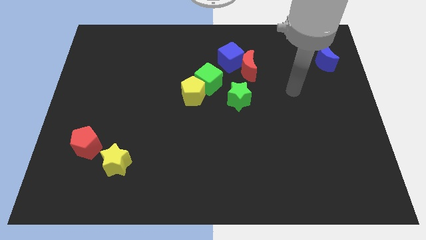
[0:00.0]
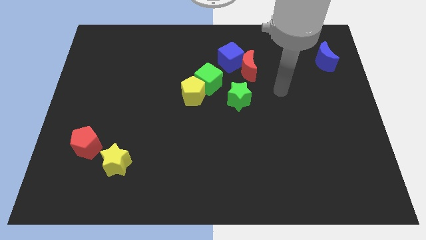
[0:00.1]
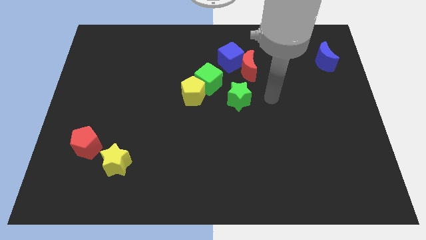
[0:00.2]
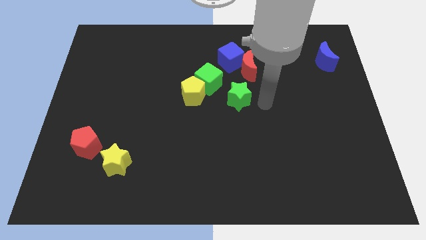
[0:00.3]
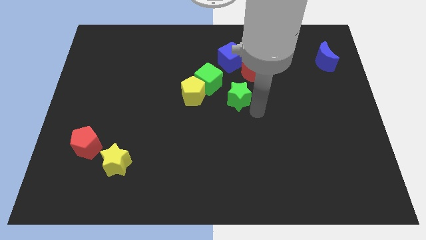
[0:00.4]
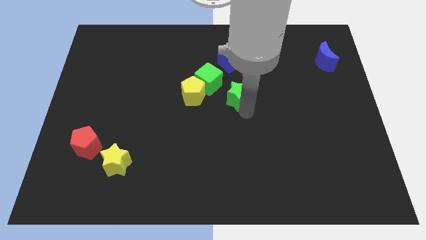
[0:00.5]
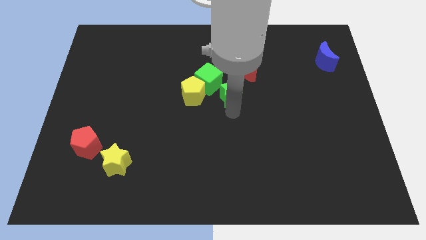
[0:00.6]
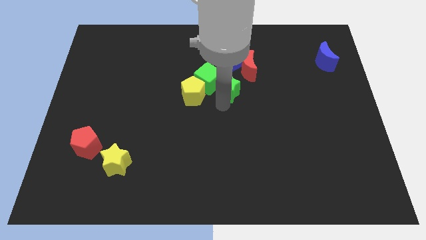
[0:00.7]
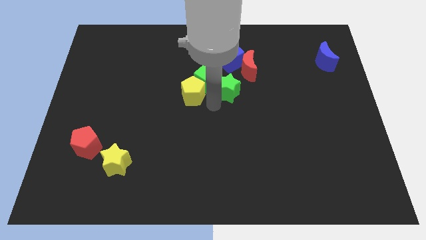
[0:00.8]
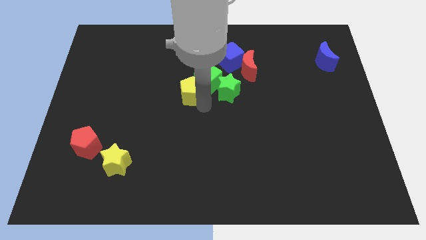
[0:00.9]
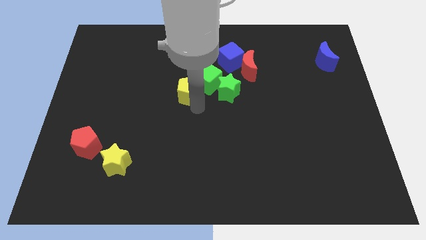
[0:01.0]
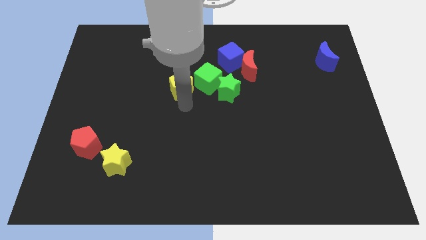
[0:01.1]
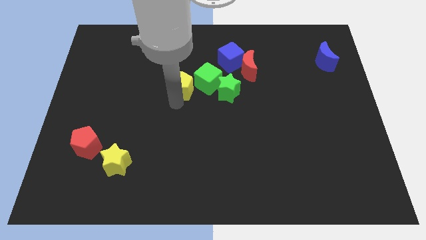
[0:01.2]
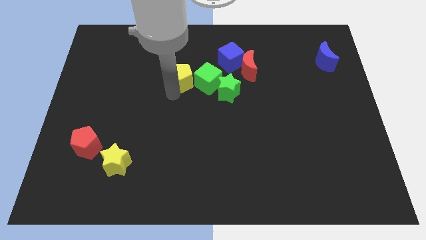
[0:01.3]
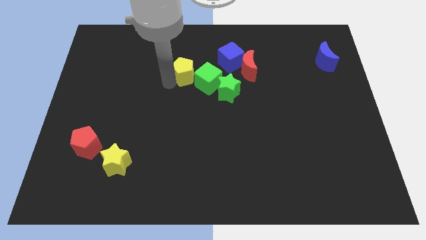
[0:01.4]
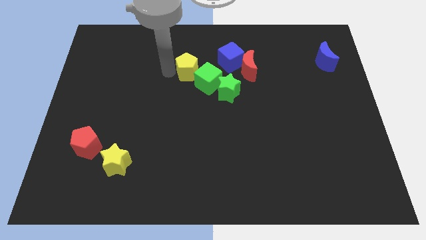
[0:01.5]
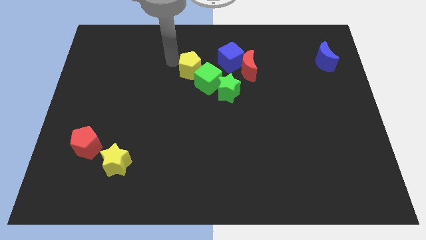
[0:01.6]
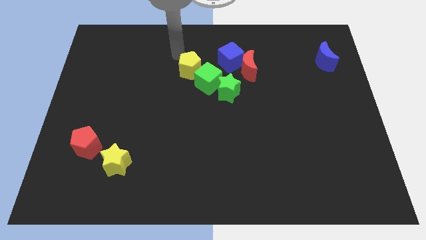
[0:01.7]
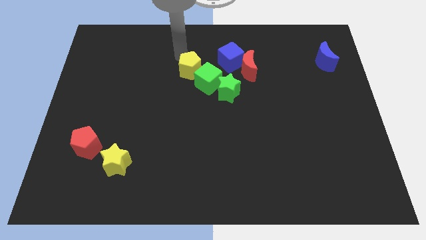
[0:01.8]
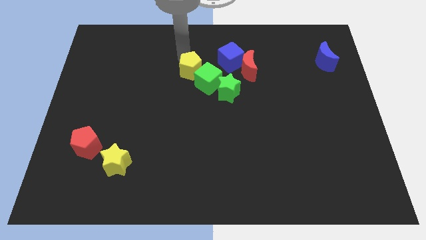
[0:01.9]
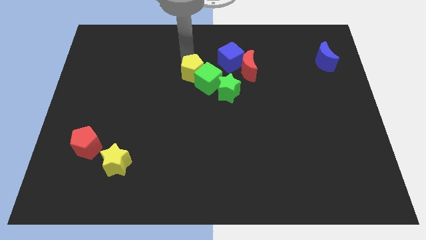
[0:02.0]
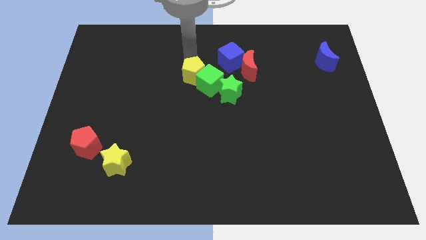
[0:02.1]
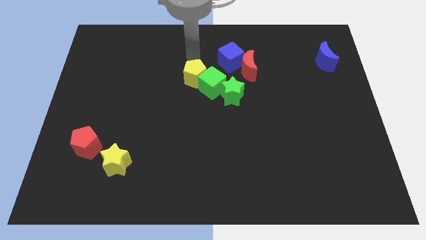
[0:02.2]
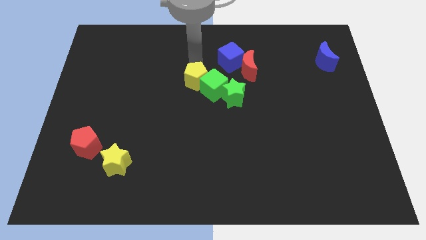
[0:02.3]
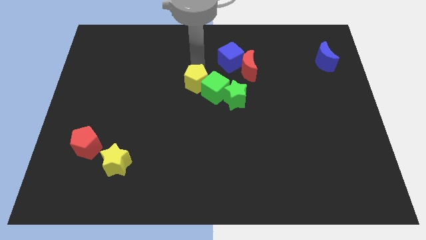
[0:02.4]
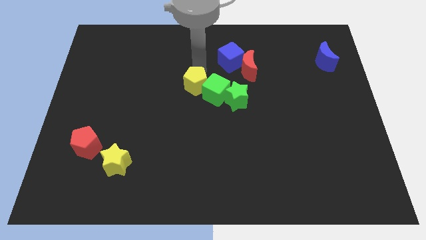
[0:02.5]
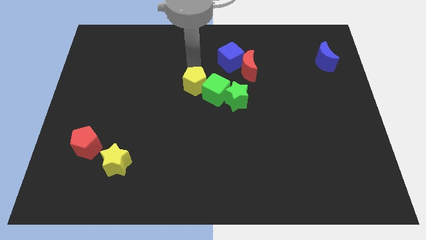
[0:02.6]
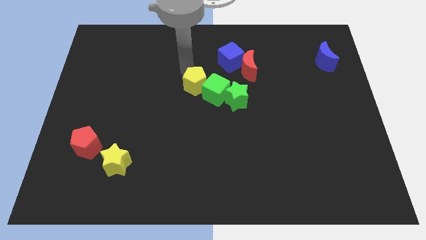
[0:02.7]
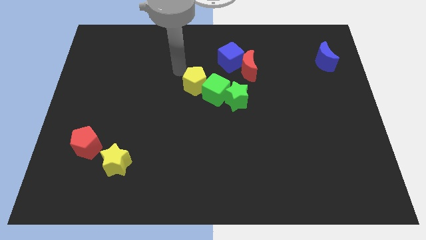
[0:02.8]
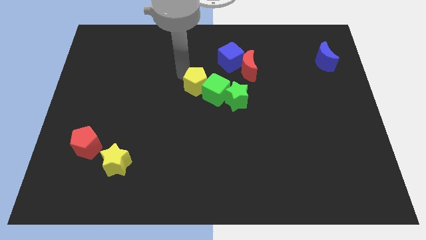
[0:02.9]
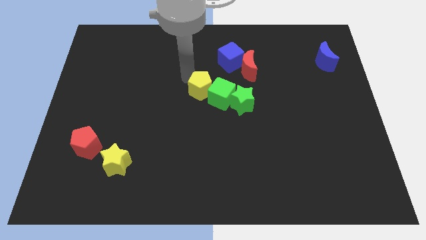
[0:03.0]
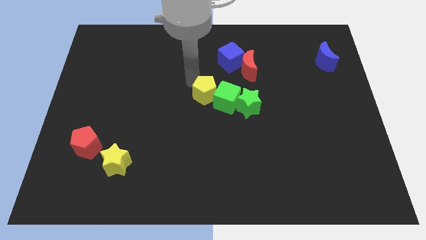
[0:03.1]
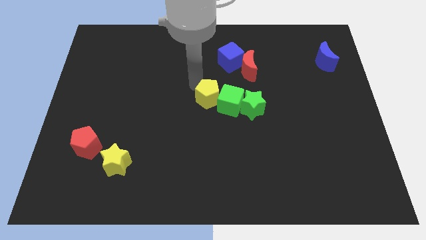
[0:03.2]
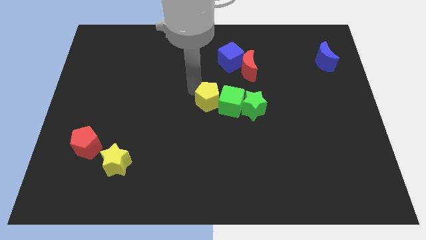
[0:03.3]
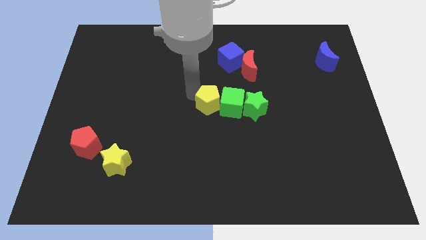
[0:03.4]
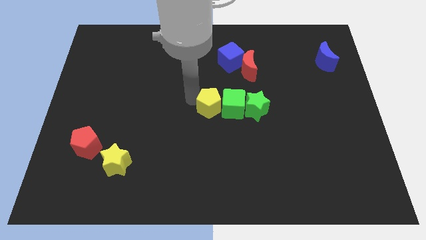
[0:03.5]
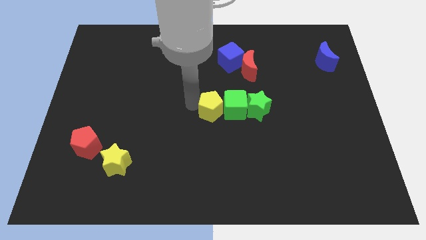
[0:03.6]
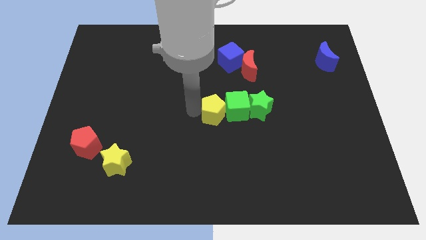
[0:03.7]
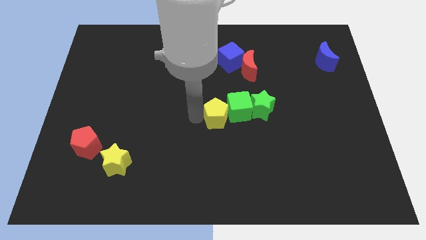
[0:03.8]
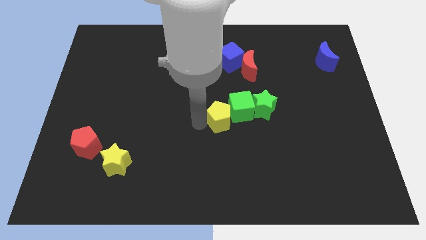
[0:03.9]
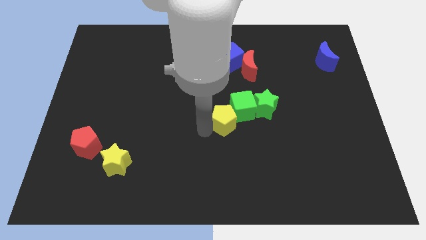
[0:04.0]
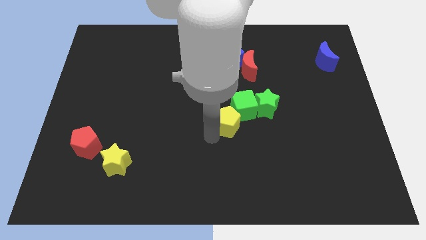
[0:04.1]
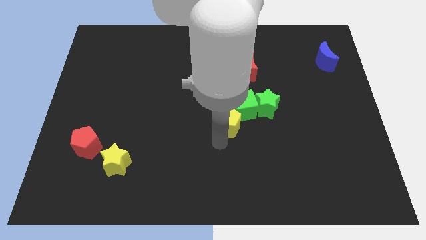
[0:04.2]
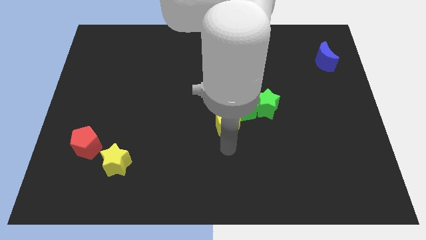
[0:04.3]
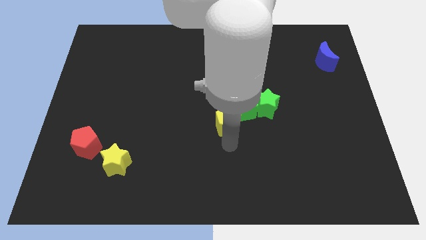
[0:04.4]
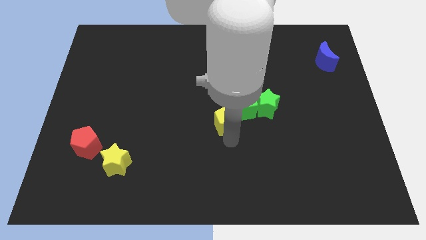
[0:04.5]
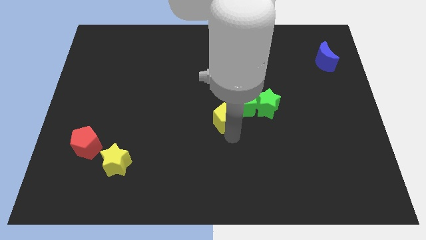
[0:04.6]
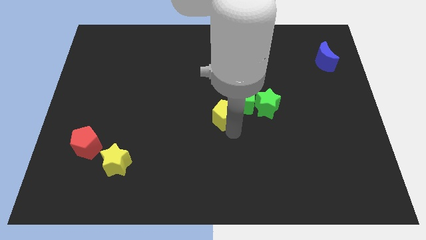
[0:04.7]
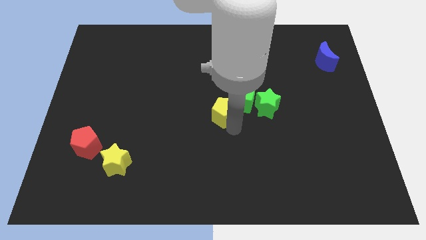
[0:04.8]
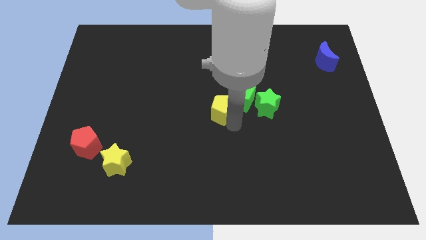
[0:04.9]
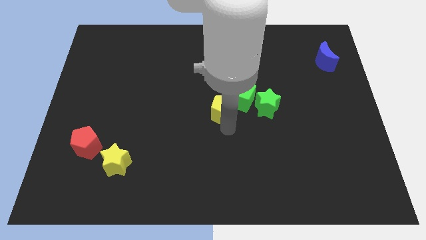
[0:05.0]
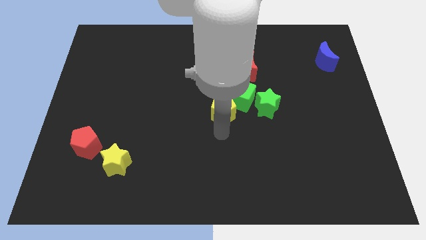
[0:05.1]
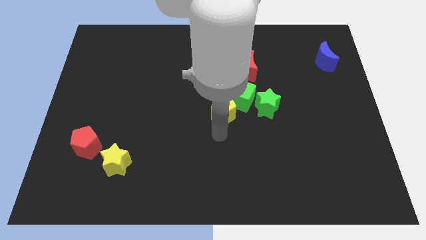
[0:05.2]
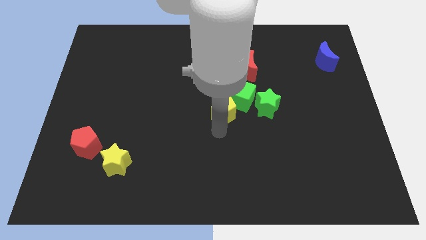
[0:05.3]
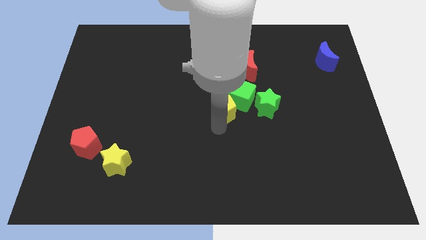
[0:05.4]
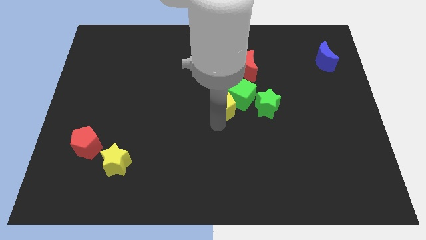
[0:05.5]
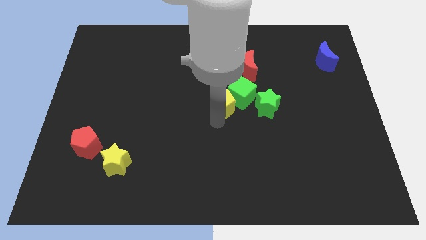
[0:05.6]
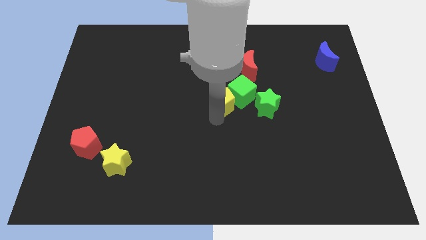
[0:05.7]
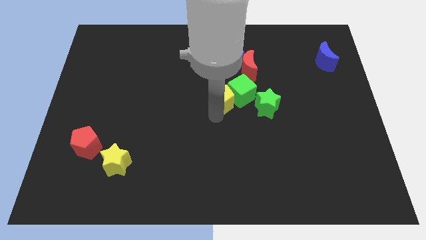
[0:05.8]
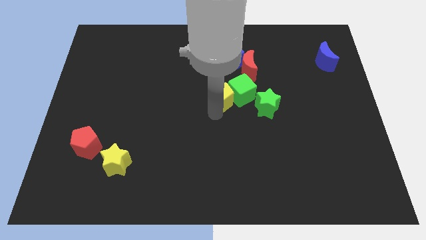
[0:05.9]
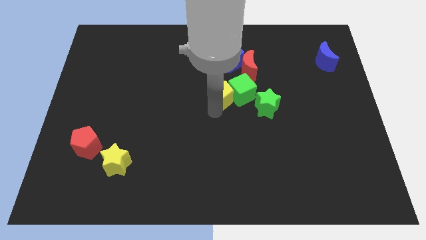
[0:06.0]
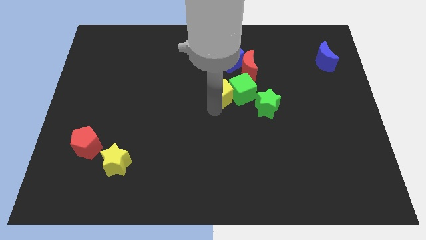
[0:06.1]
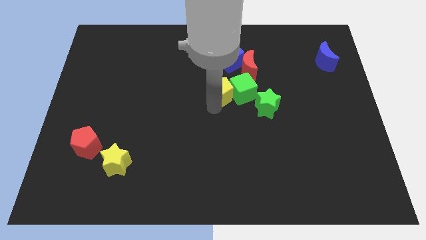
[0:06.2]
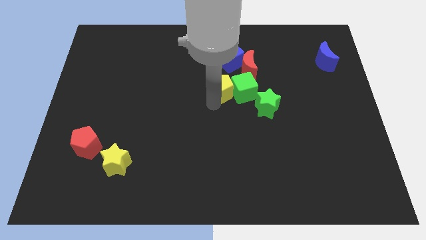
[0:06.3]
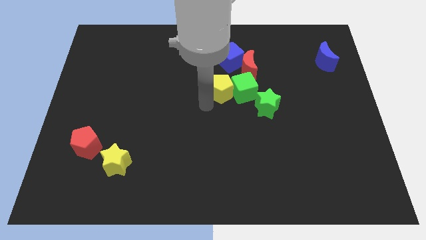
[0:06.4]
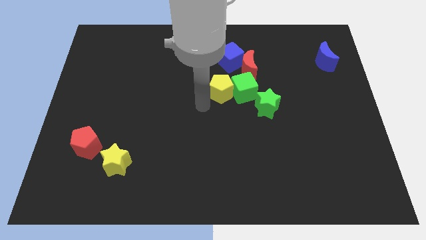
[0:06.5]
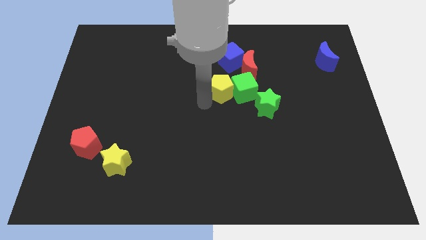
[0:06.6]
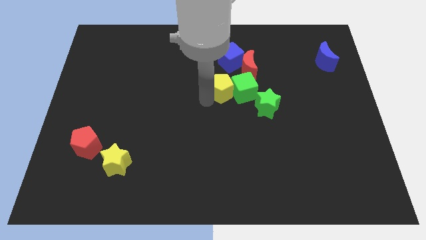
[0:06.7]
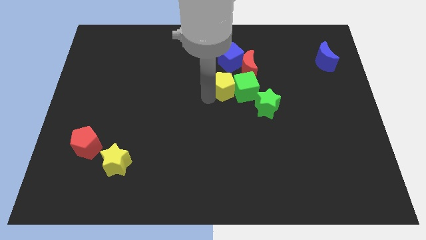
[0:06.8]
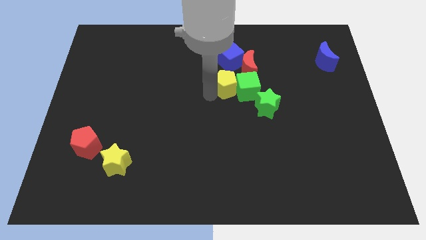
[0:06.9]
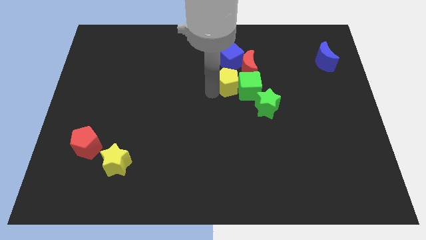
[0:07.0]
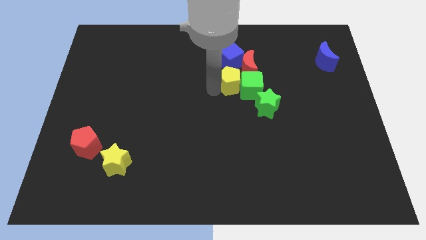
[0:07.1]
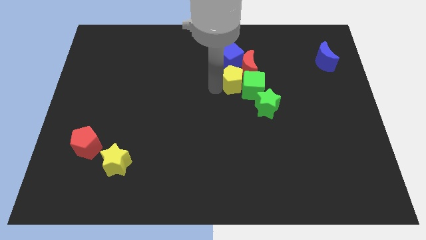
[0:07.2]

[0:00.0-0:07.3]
slide the yellow pentagon next to the red moon
